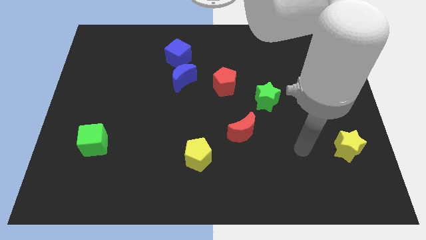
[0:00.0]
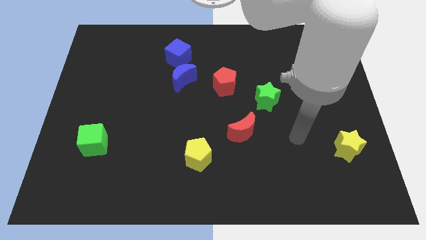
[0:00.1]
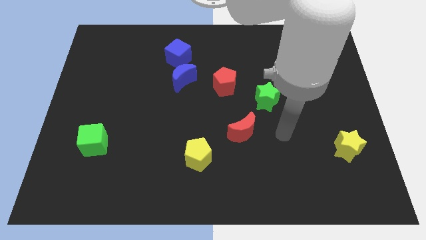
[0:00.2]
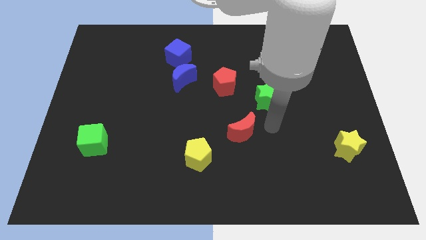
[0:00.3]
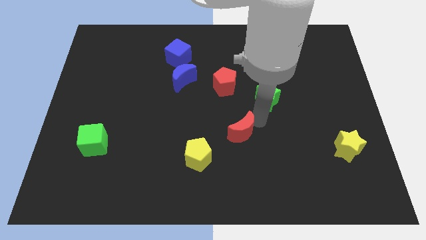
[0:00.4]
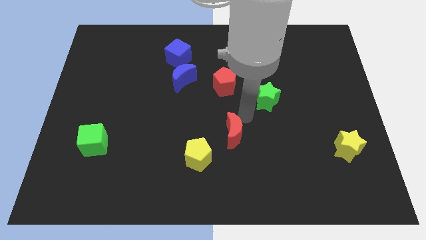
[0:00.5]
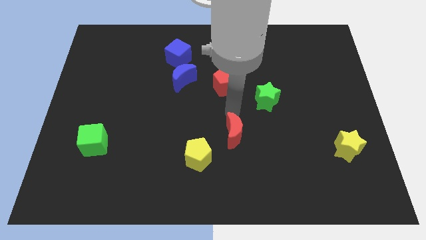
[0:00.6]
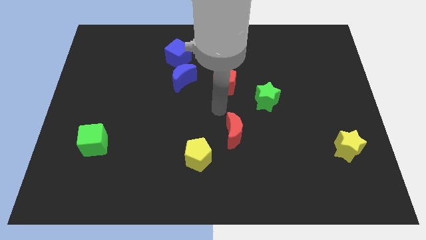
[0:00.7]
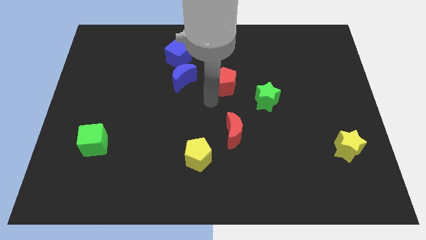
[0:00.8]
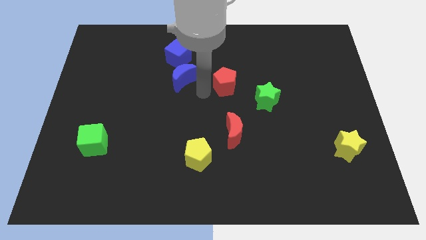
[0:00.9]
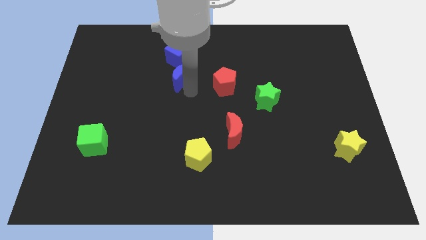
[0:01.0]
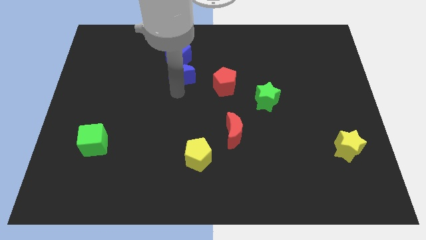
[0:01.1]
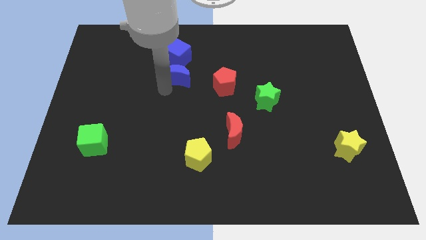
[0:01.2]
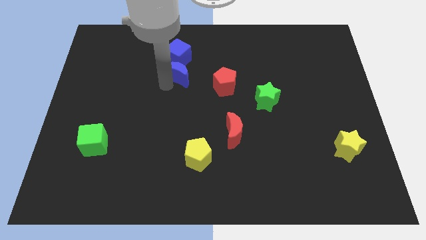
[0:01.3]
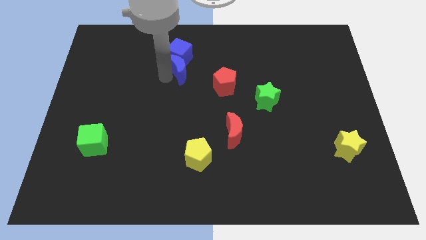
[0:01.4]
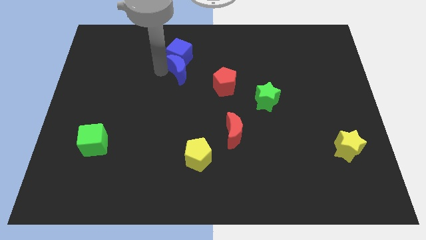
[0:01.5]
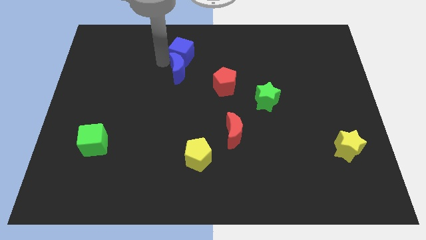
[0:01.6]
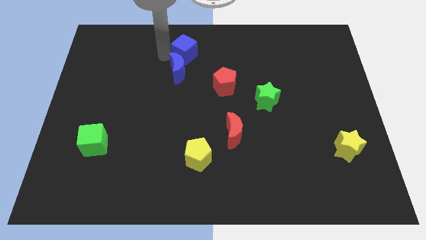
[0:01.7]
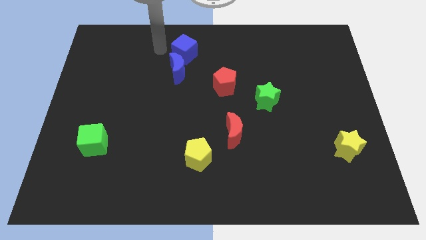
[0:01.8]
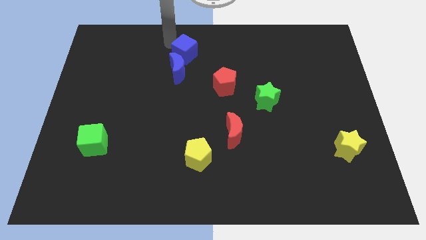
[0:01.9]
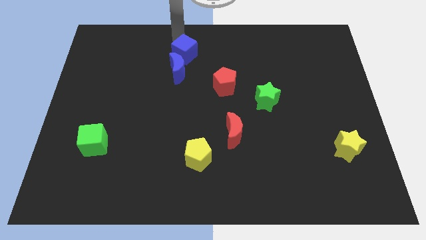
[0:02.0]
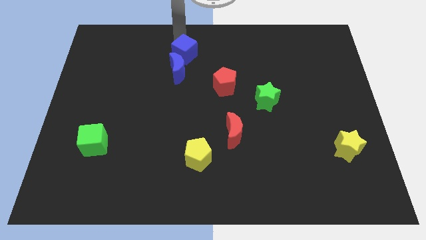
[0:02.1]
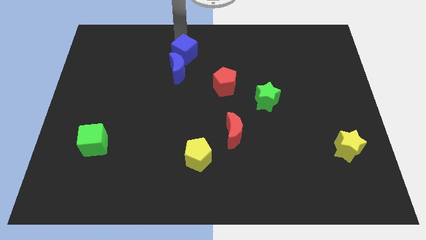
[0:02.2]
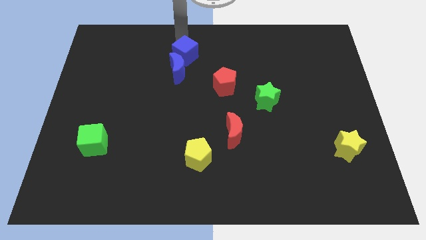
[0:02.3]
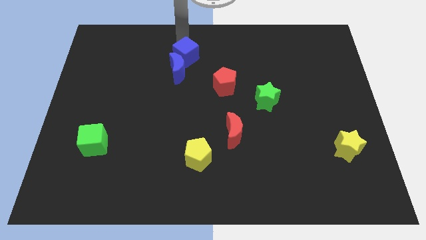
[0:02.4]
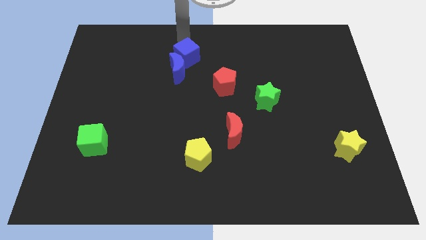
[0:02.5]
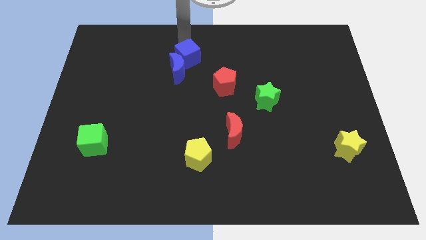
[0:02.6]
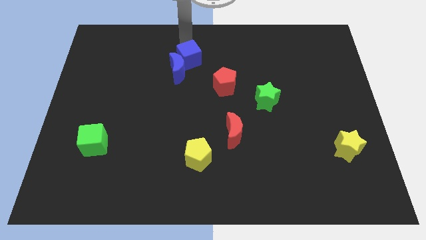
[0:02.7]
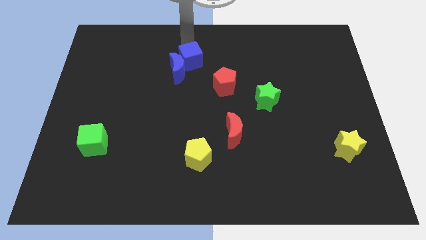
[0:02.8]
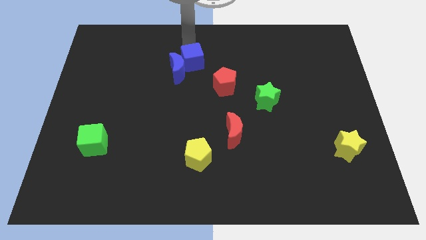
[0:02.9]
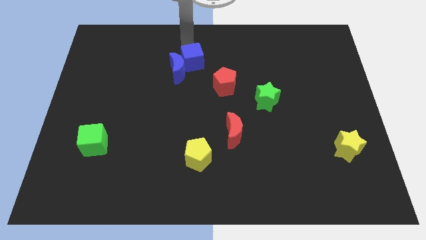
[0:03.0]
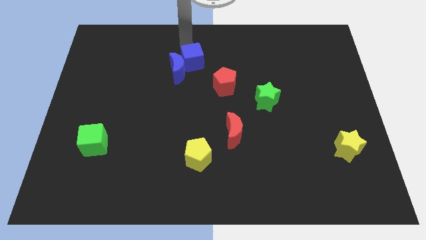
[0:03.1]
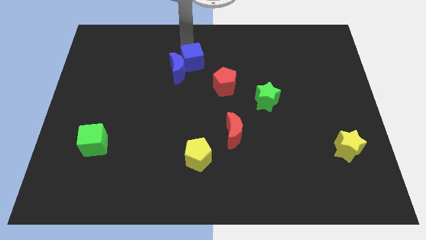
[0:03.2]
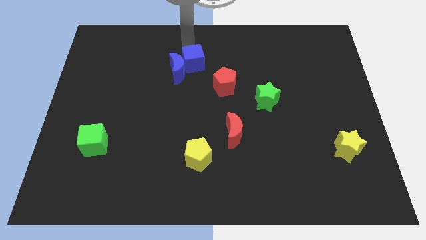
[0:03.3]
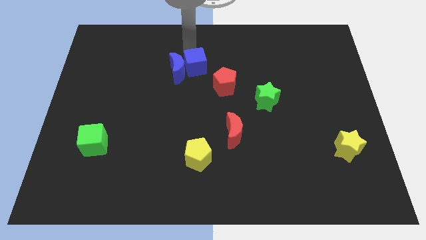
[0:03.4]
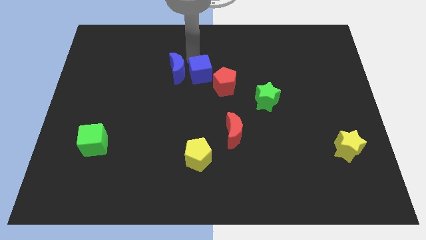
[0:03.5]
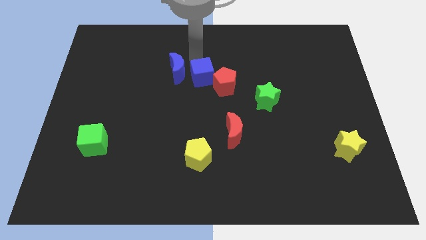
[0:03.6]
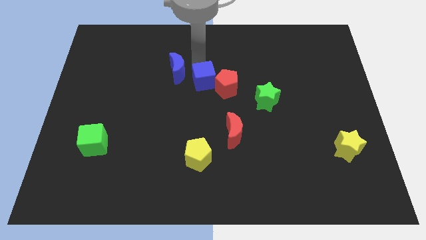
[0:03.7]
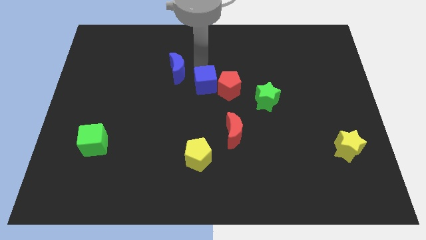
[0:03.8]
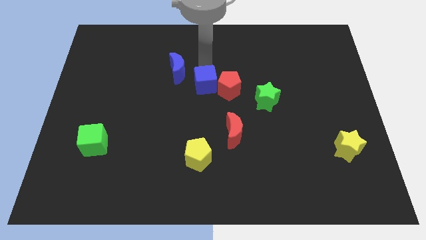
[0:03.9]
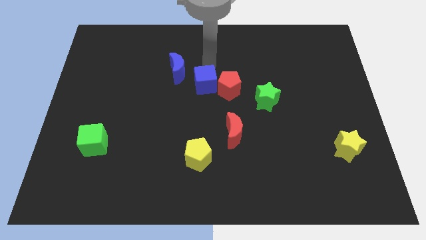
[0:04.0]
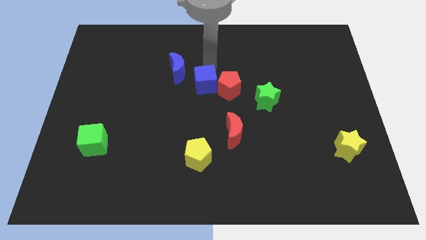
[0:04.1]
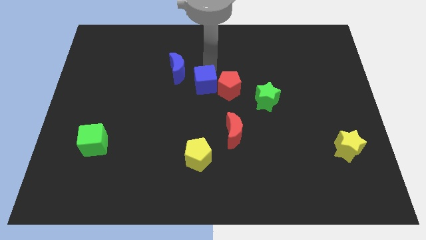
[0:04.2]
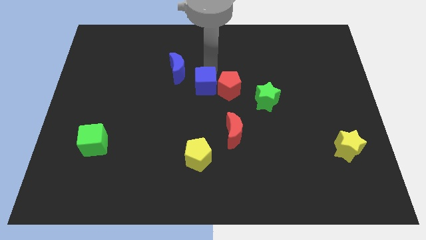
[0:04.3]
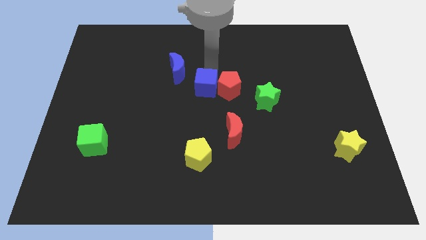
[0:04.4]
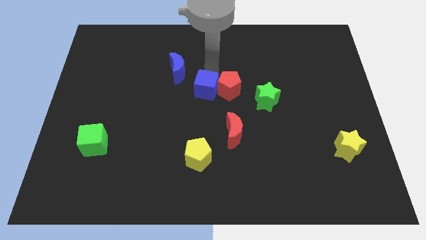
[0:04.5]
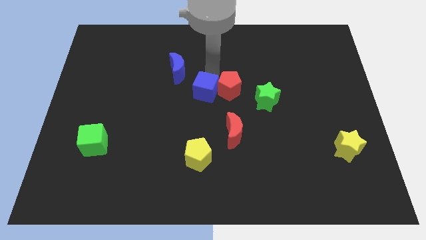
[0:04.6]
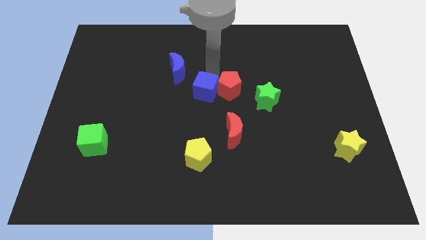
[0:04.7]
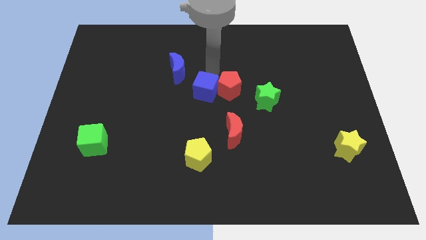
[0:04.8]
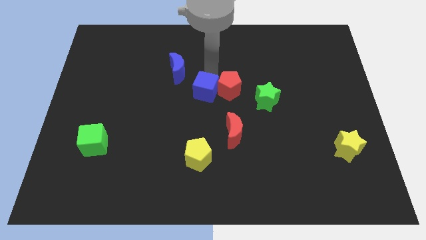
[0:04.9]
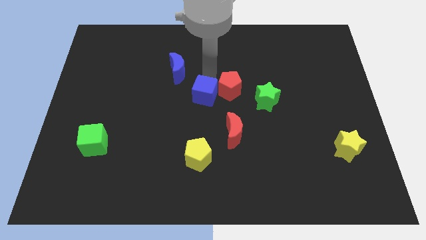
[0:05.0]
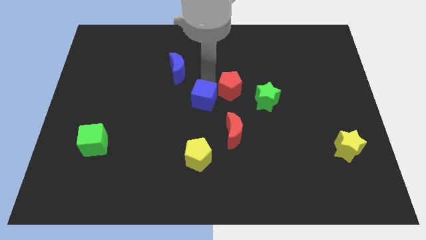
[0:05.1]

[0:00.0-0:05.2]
push the blue cube above the yellow pentagon

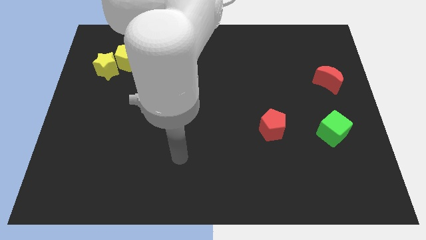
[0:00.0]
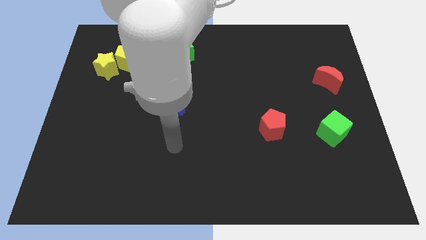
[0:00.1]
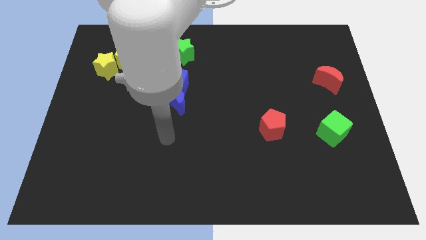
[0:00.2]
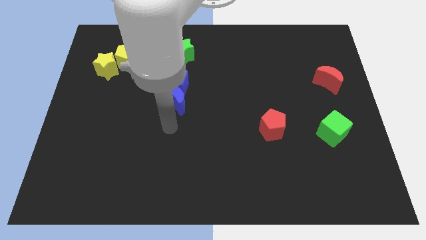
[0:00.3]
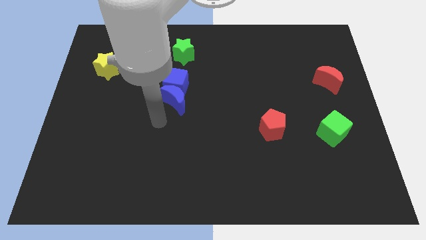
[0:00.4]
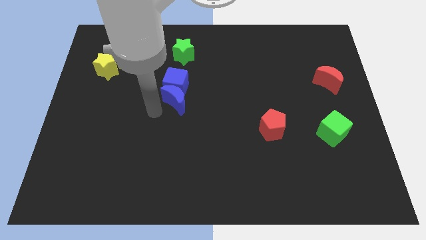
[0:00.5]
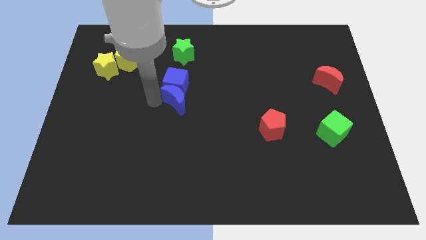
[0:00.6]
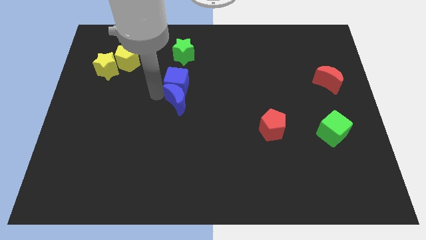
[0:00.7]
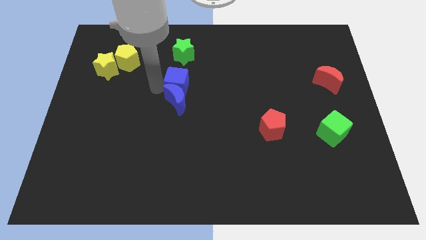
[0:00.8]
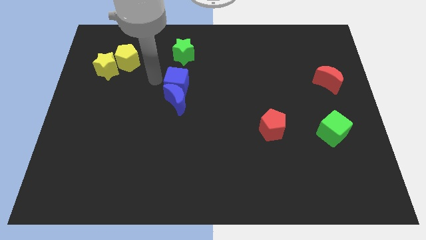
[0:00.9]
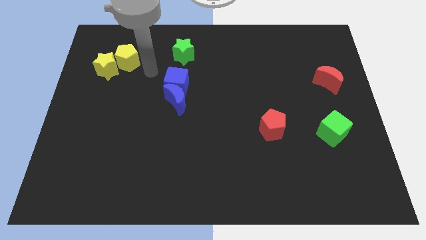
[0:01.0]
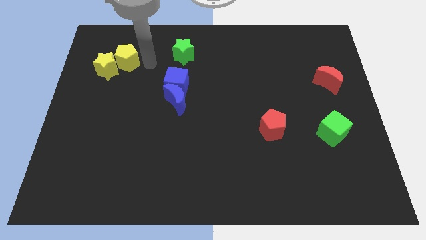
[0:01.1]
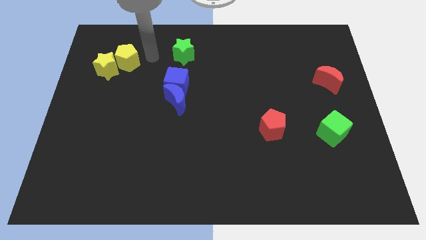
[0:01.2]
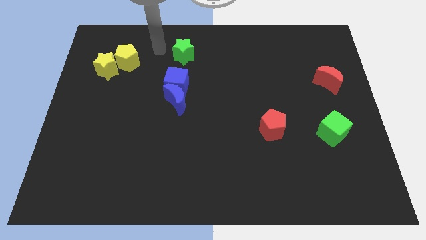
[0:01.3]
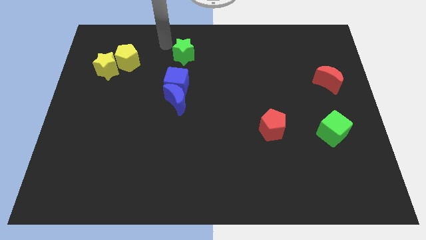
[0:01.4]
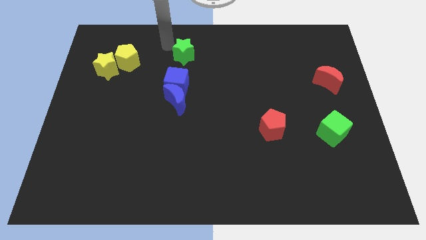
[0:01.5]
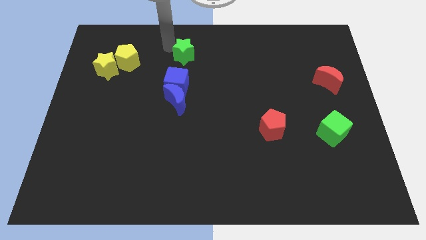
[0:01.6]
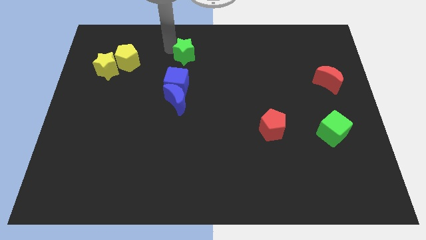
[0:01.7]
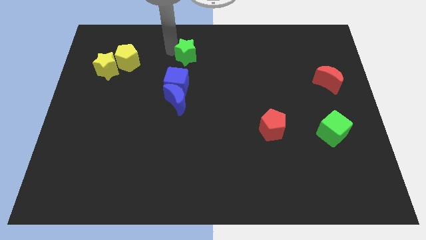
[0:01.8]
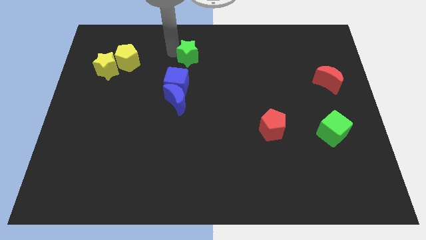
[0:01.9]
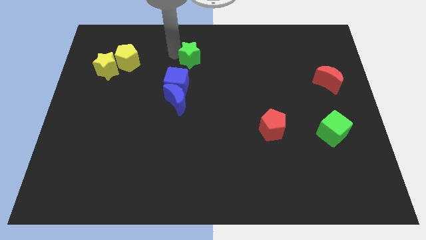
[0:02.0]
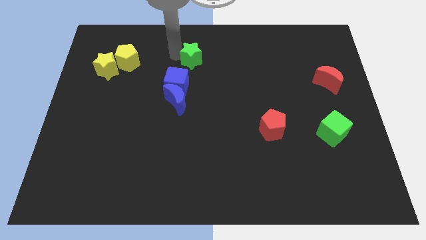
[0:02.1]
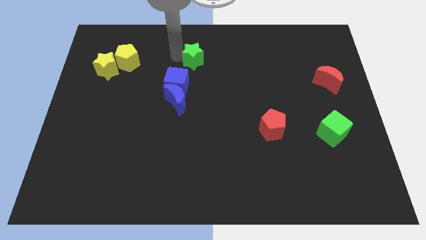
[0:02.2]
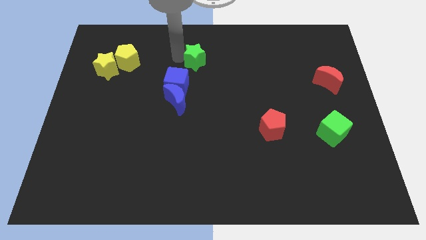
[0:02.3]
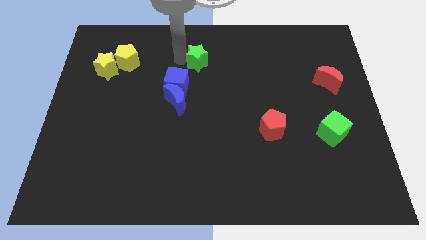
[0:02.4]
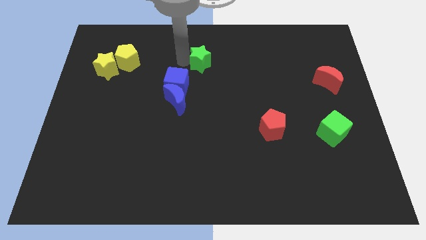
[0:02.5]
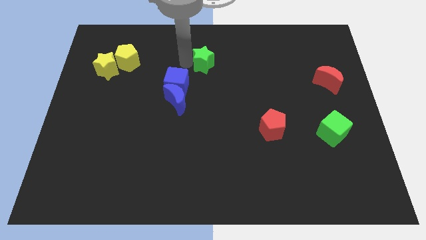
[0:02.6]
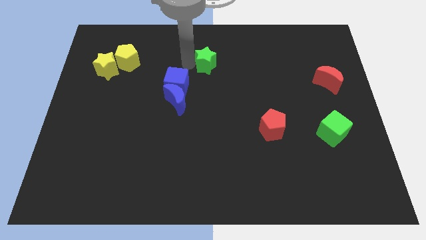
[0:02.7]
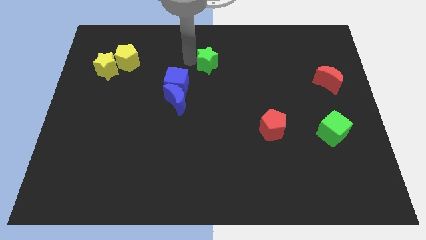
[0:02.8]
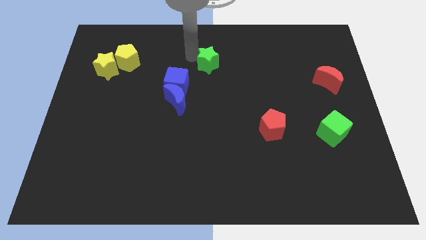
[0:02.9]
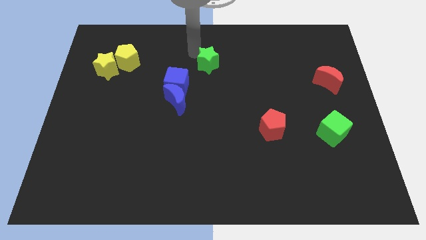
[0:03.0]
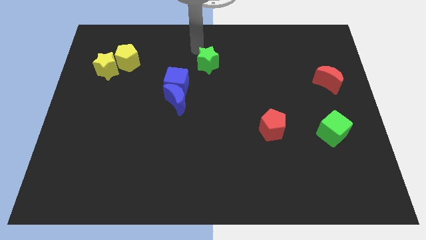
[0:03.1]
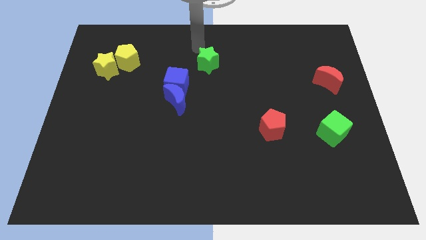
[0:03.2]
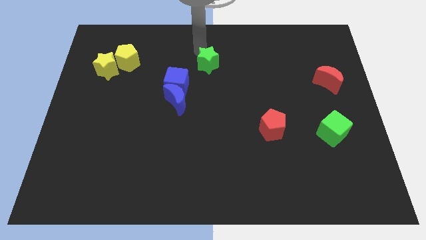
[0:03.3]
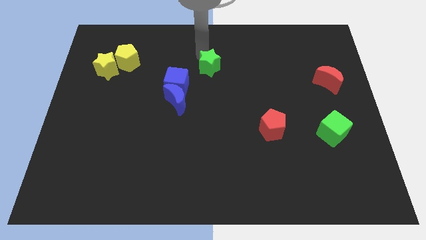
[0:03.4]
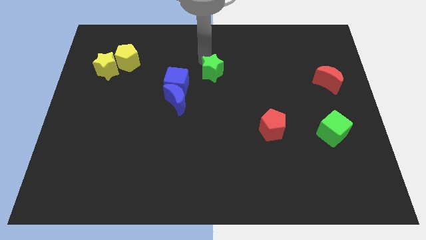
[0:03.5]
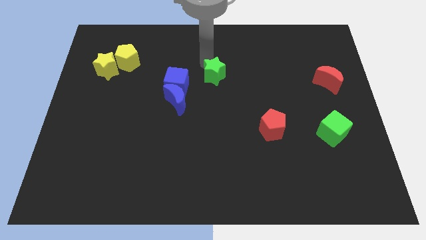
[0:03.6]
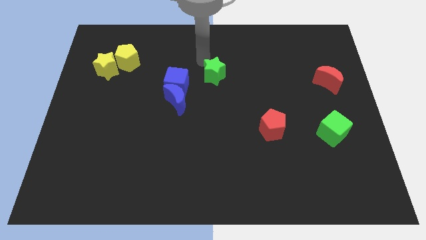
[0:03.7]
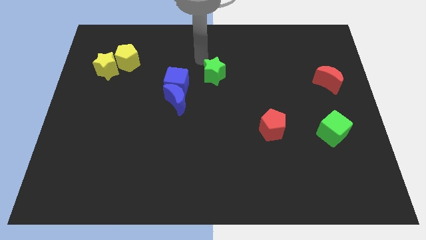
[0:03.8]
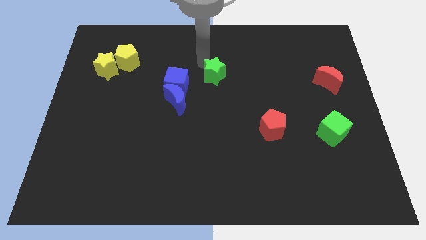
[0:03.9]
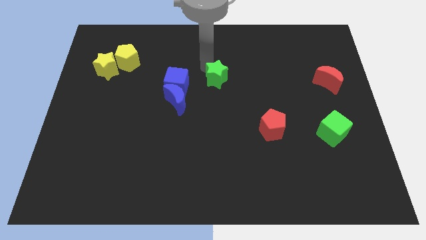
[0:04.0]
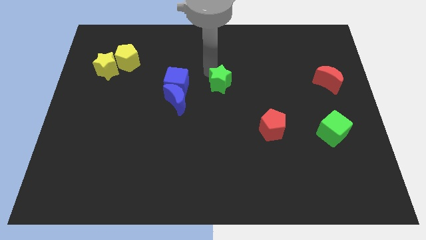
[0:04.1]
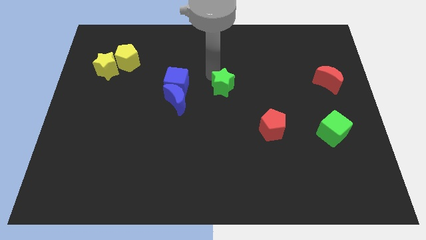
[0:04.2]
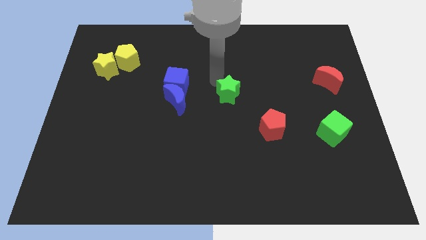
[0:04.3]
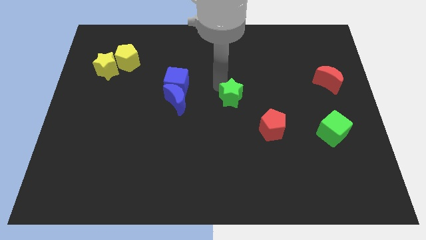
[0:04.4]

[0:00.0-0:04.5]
put the green star to the top left of the red pentagon
